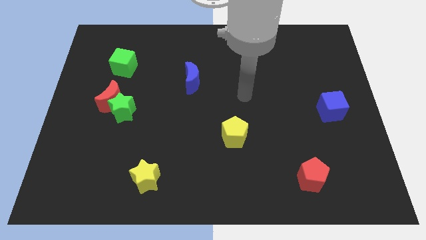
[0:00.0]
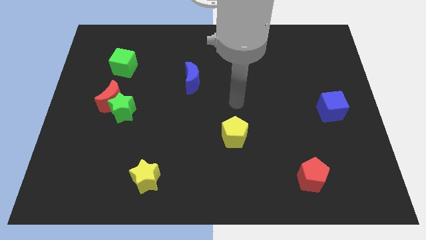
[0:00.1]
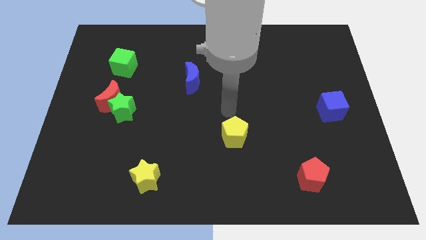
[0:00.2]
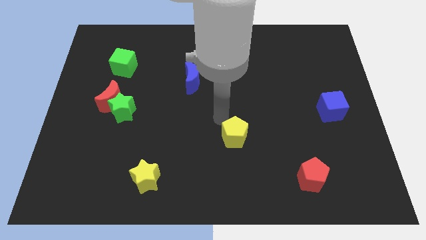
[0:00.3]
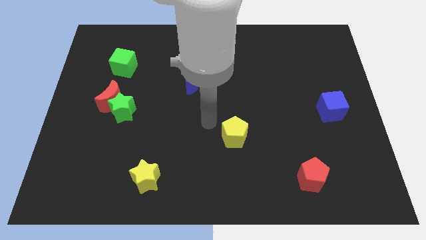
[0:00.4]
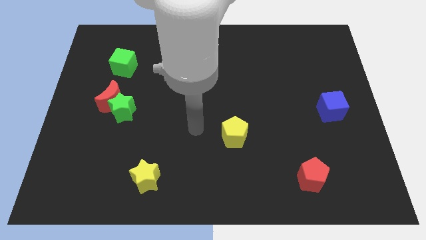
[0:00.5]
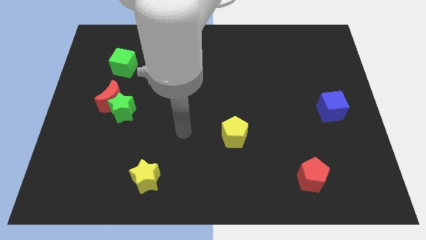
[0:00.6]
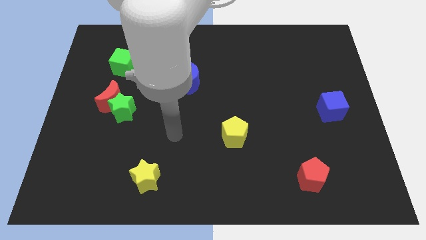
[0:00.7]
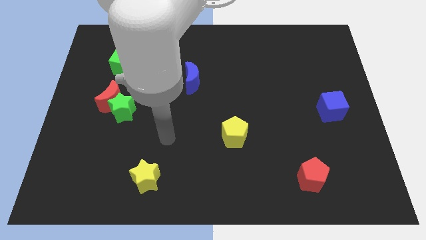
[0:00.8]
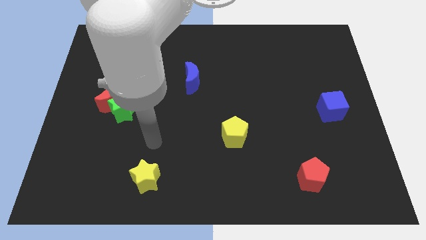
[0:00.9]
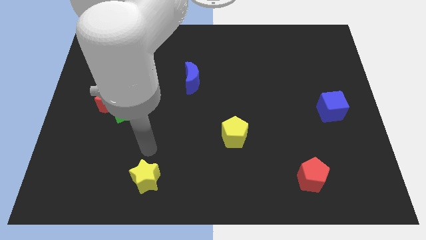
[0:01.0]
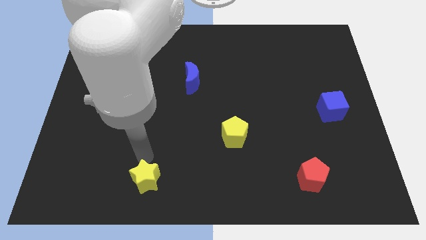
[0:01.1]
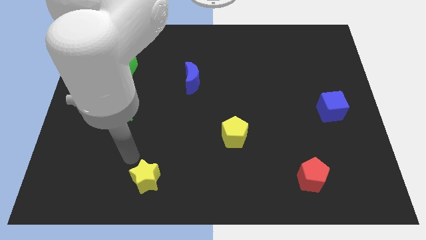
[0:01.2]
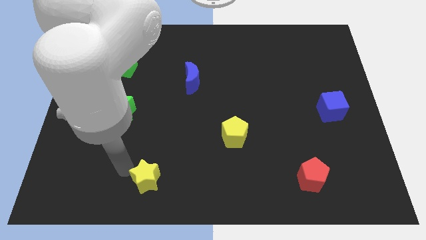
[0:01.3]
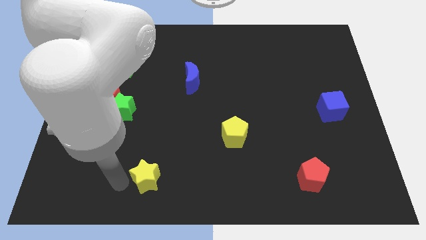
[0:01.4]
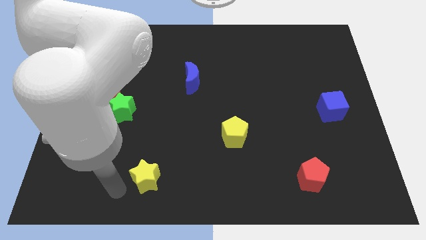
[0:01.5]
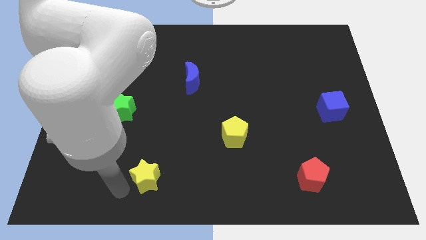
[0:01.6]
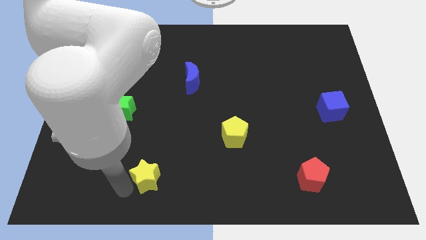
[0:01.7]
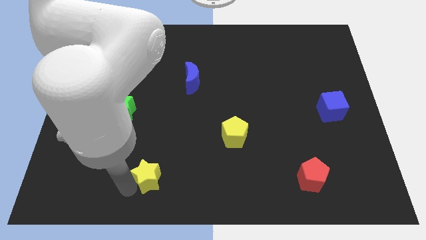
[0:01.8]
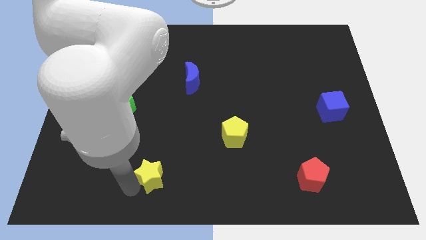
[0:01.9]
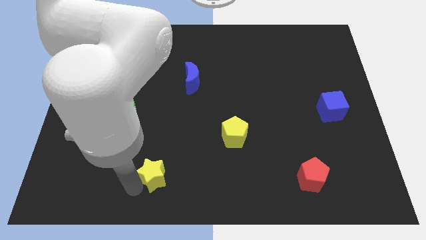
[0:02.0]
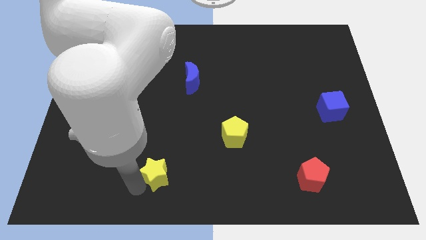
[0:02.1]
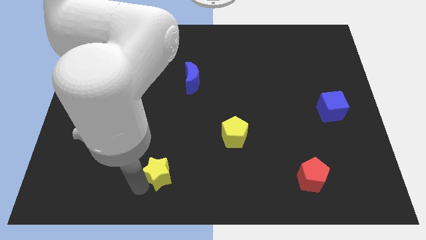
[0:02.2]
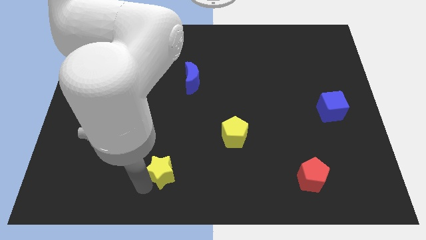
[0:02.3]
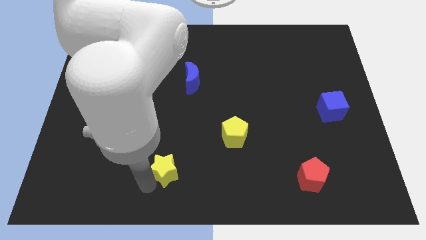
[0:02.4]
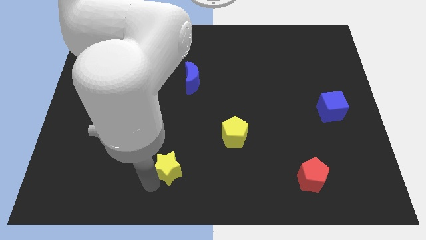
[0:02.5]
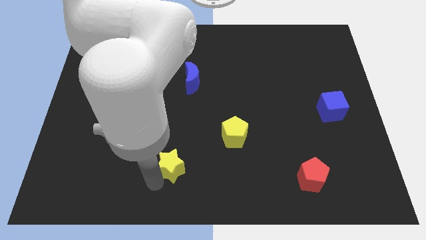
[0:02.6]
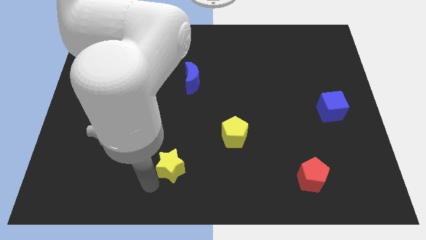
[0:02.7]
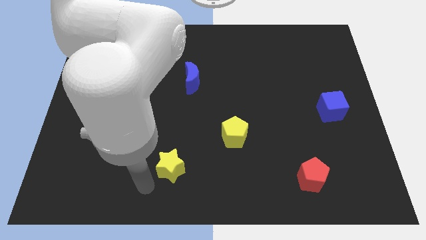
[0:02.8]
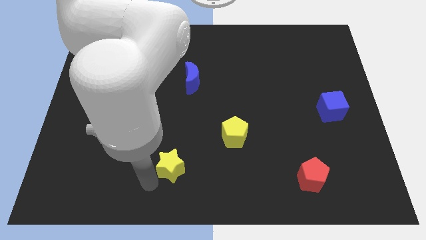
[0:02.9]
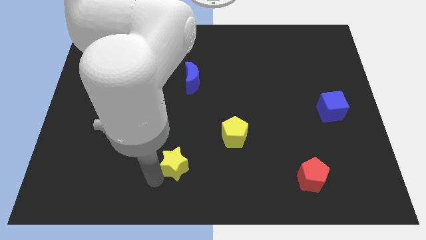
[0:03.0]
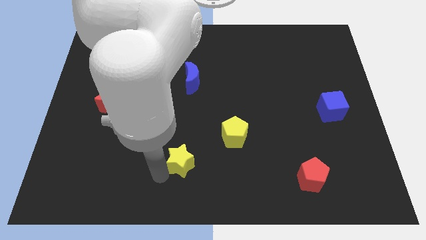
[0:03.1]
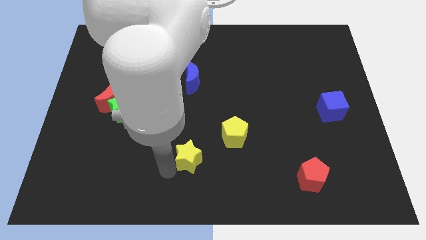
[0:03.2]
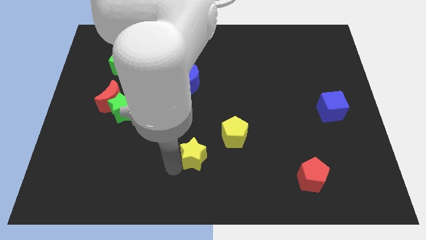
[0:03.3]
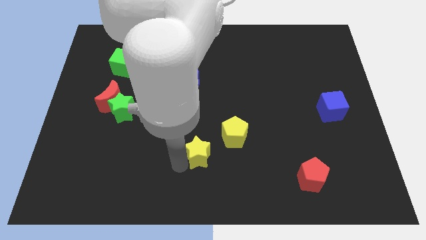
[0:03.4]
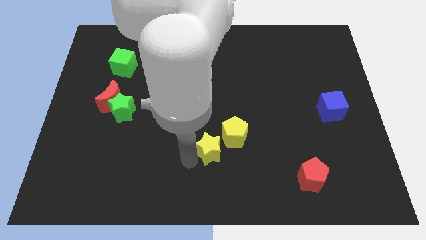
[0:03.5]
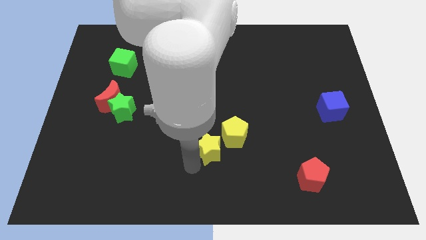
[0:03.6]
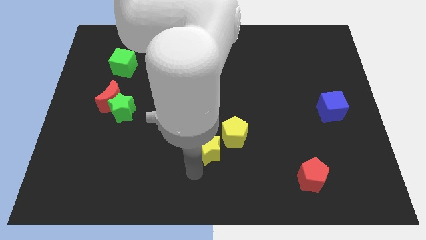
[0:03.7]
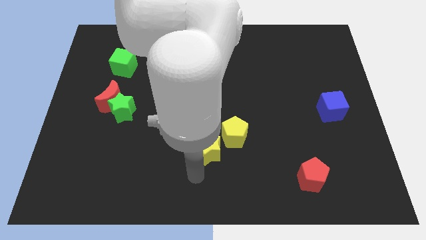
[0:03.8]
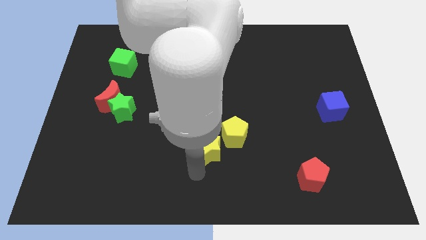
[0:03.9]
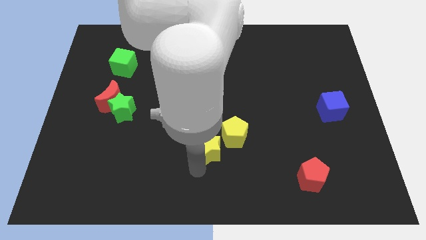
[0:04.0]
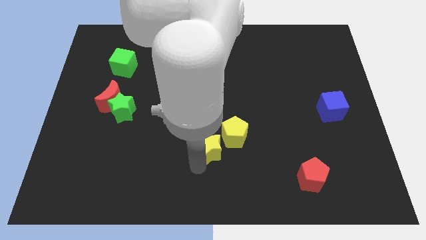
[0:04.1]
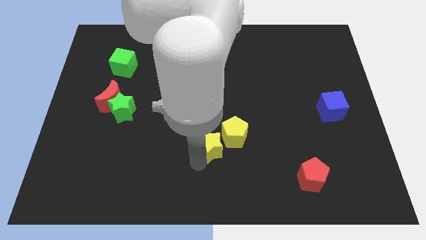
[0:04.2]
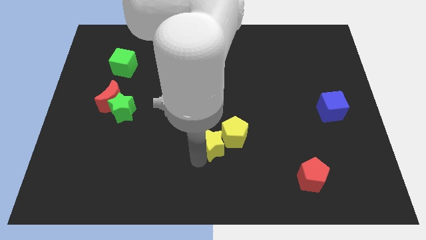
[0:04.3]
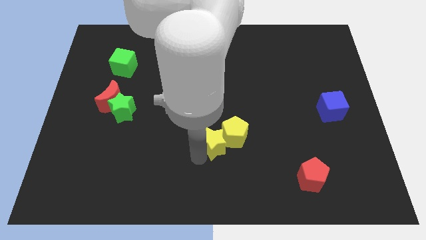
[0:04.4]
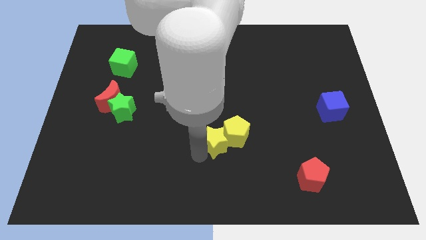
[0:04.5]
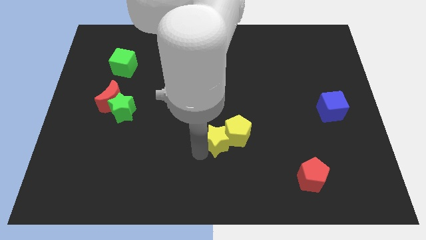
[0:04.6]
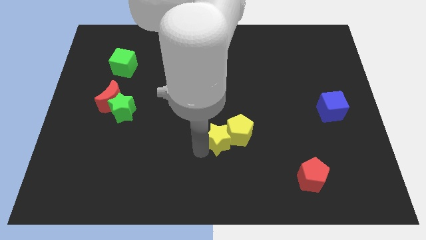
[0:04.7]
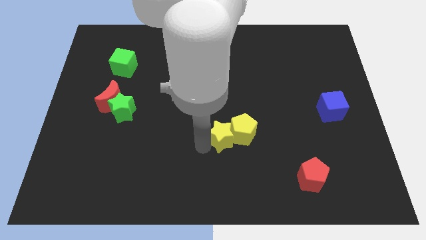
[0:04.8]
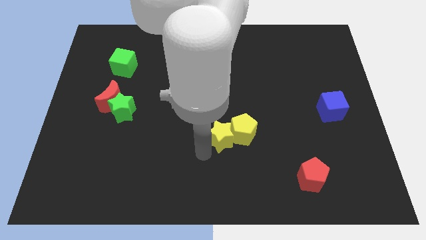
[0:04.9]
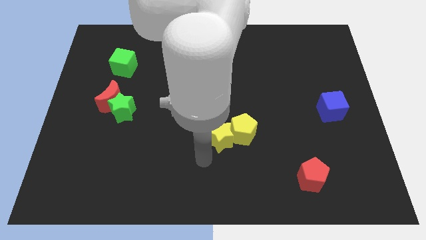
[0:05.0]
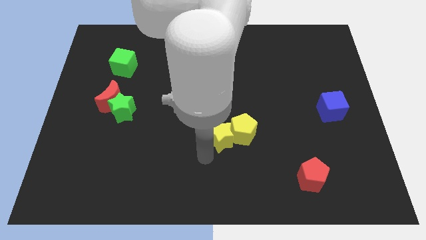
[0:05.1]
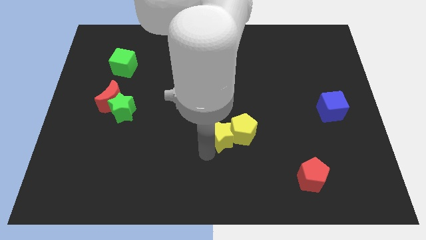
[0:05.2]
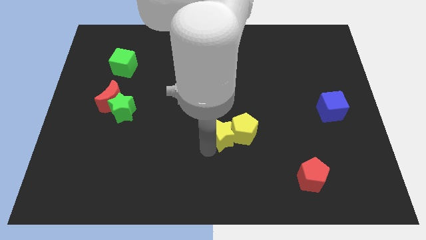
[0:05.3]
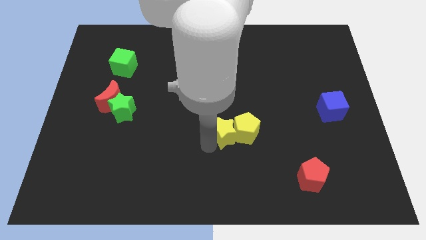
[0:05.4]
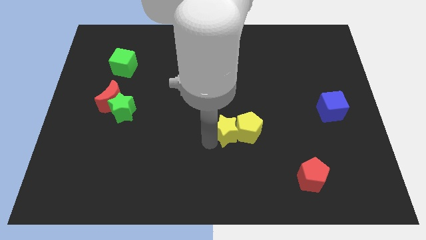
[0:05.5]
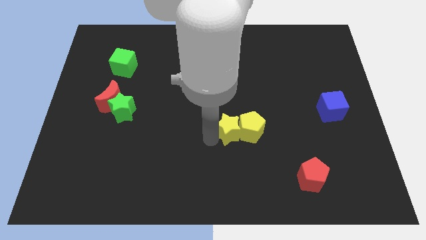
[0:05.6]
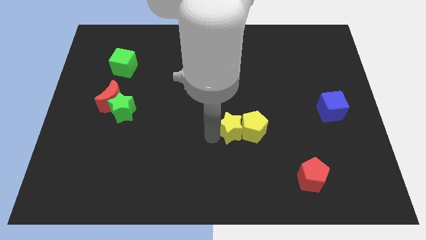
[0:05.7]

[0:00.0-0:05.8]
slide the yellow star diagonally up and right

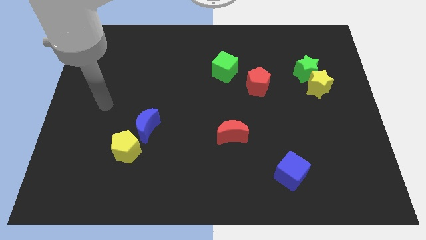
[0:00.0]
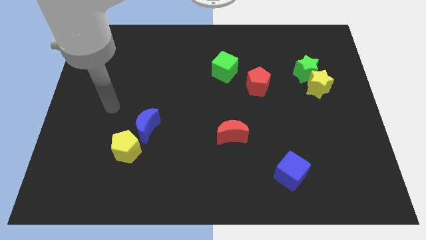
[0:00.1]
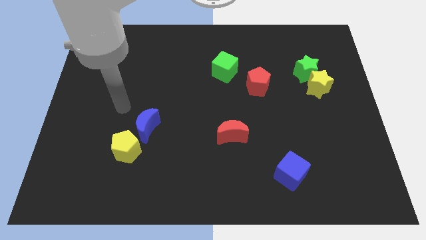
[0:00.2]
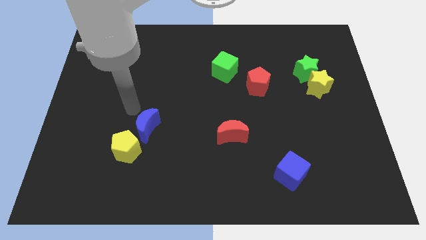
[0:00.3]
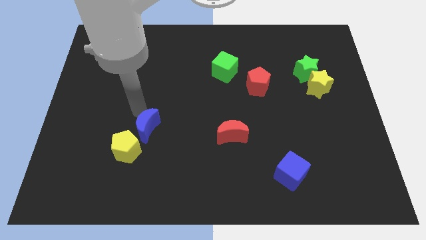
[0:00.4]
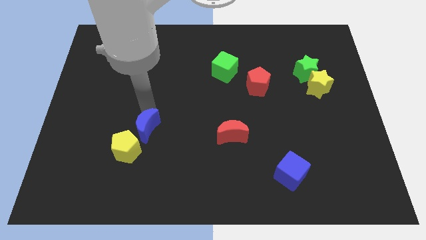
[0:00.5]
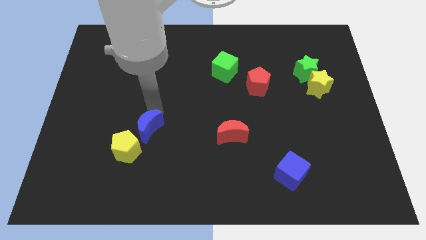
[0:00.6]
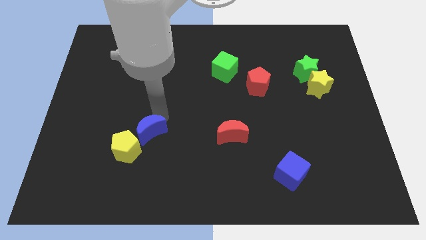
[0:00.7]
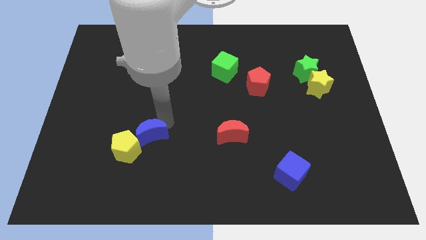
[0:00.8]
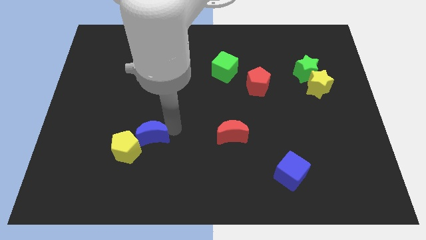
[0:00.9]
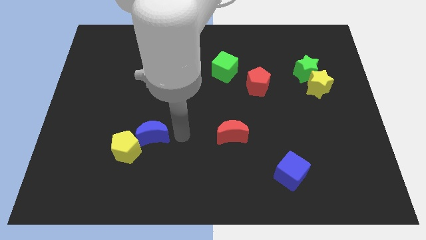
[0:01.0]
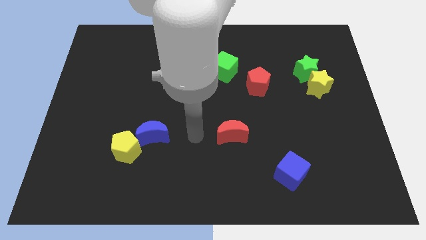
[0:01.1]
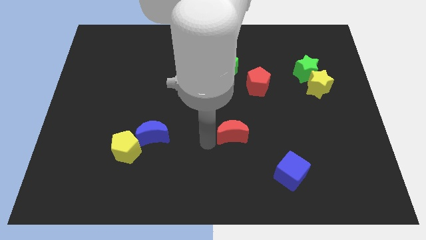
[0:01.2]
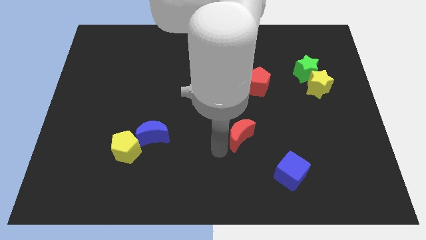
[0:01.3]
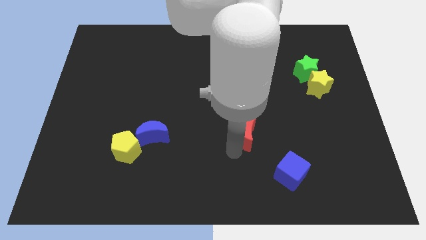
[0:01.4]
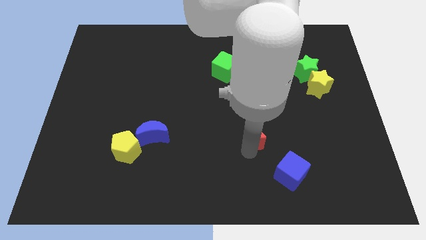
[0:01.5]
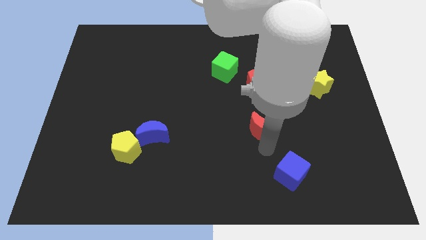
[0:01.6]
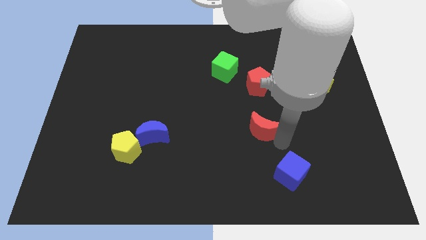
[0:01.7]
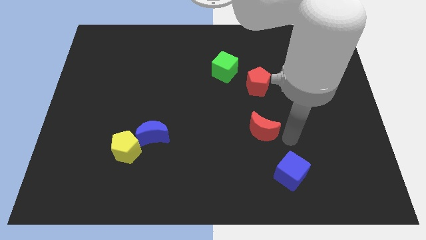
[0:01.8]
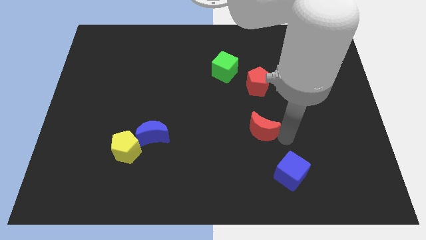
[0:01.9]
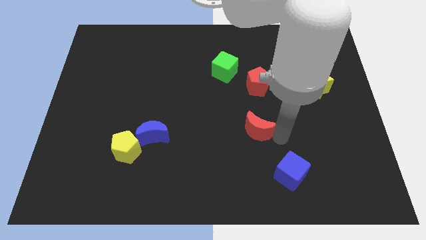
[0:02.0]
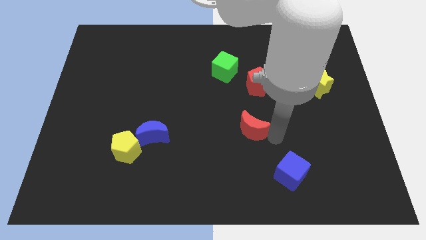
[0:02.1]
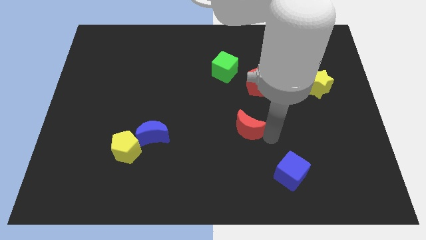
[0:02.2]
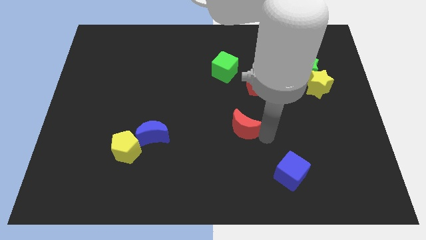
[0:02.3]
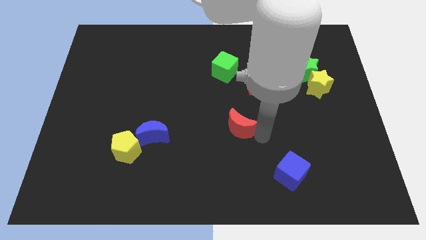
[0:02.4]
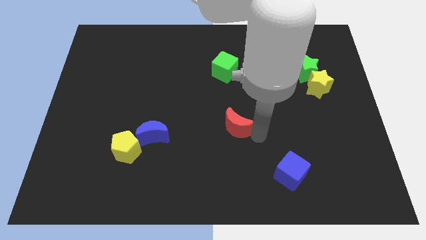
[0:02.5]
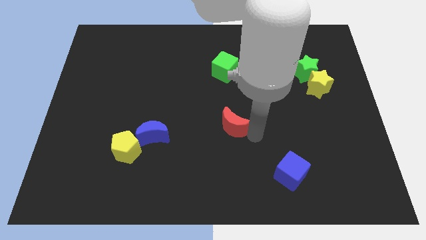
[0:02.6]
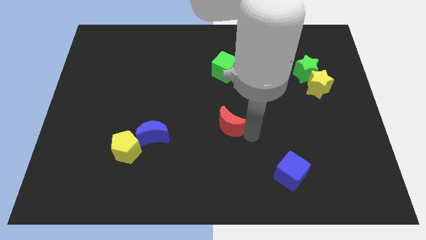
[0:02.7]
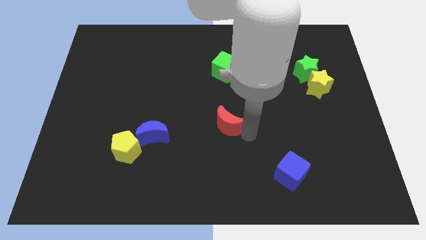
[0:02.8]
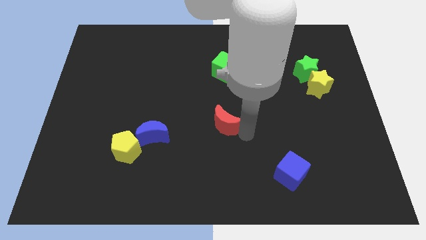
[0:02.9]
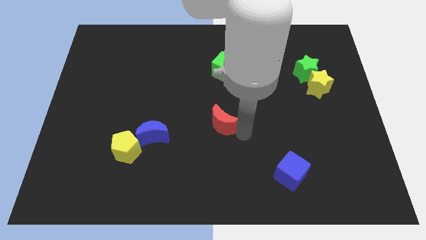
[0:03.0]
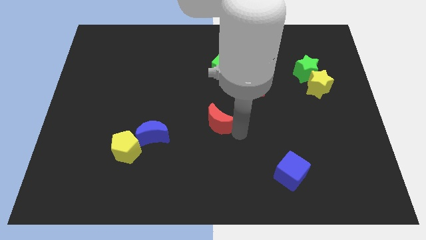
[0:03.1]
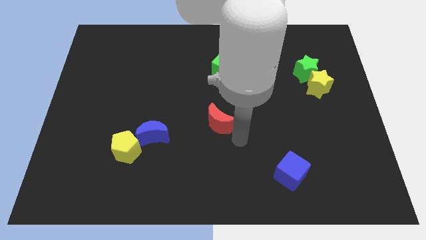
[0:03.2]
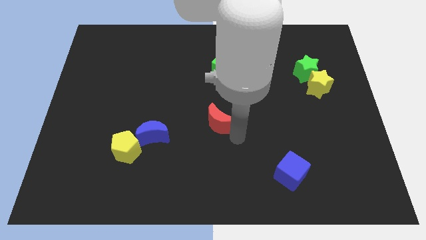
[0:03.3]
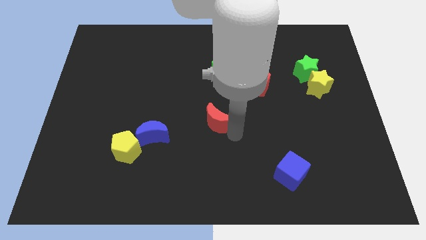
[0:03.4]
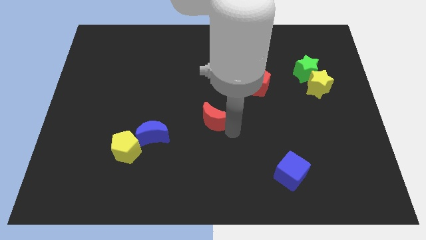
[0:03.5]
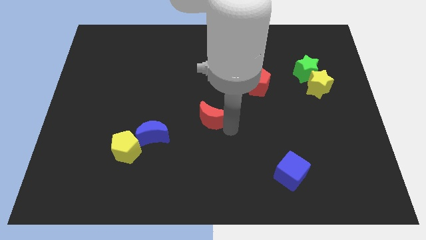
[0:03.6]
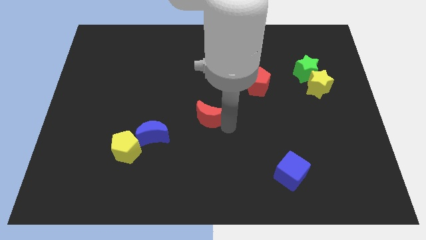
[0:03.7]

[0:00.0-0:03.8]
slide the red moon slightly diagonally up and to the left
